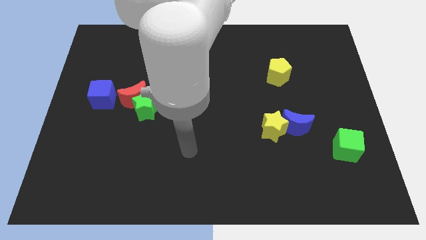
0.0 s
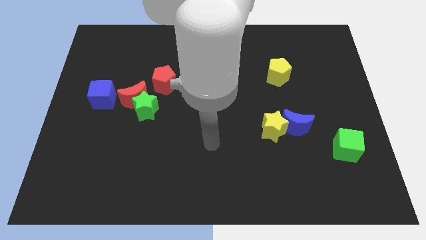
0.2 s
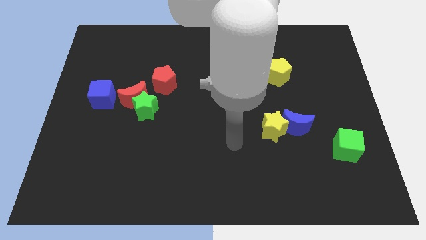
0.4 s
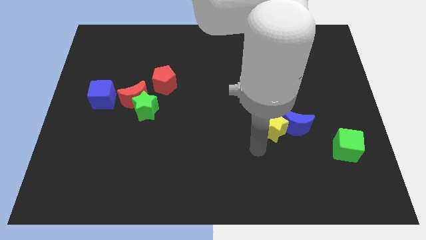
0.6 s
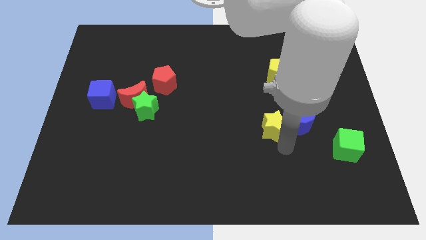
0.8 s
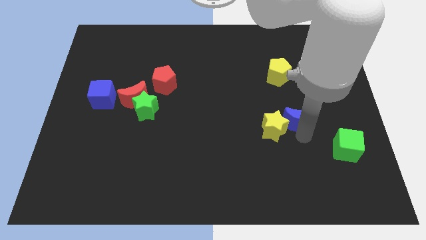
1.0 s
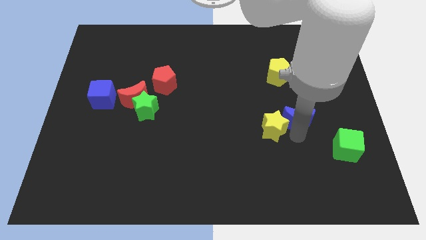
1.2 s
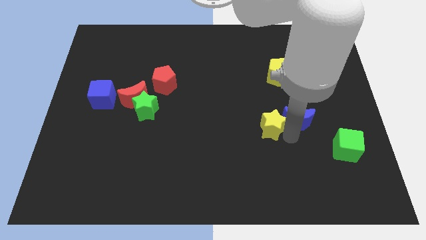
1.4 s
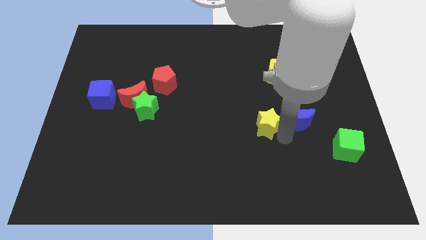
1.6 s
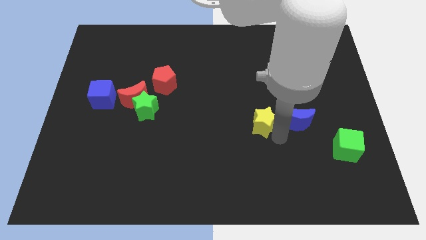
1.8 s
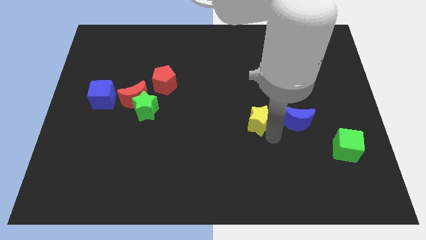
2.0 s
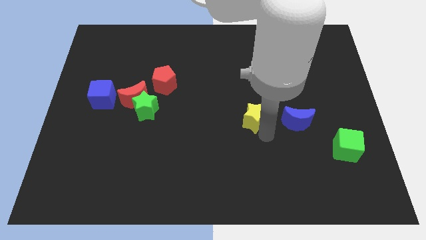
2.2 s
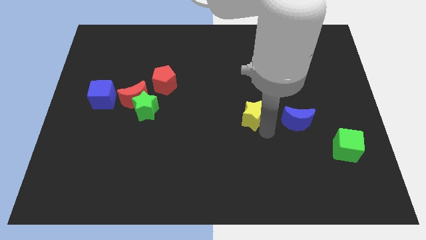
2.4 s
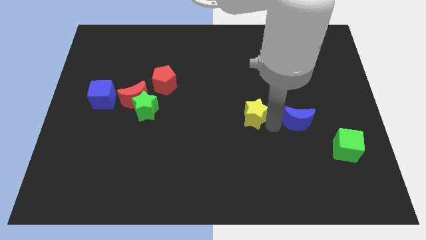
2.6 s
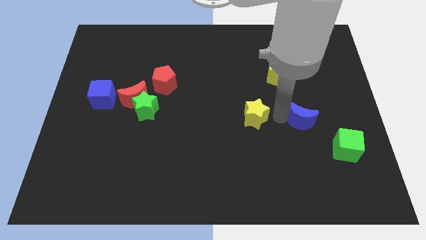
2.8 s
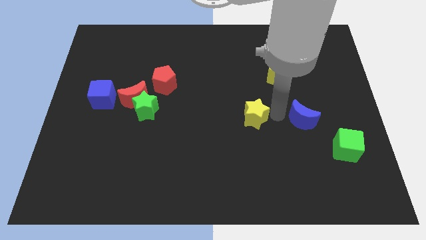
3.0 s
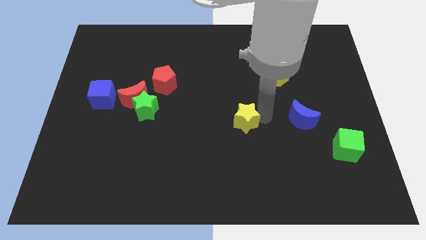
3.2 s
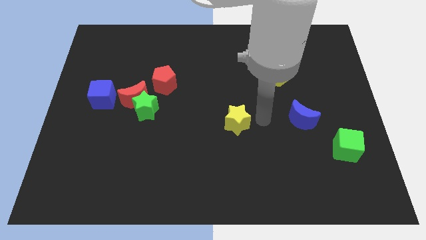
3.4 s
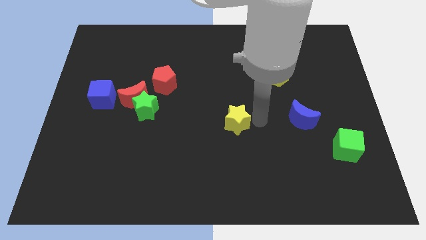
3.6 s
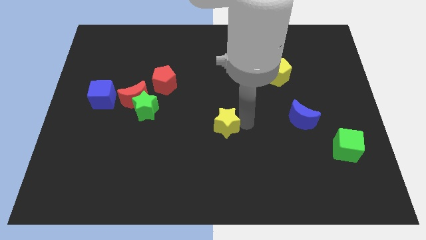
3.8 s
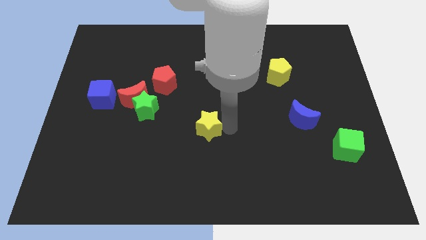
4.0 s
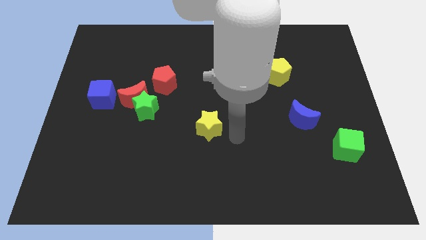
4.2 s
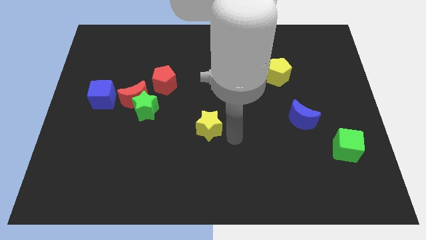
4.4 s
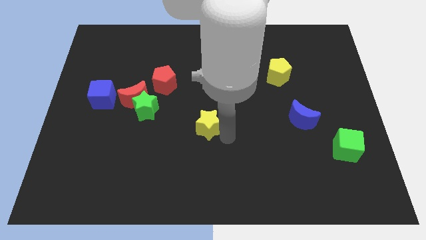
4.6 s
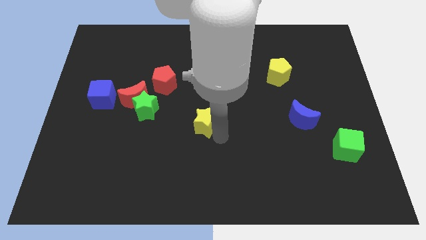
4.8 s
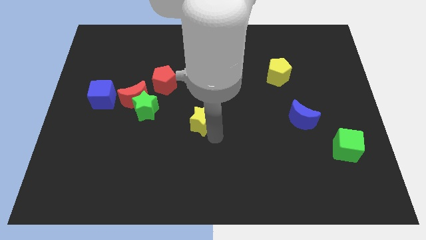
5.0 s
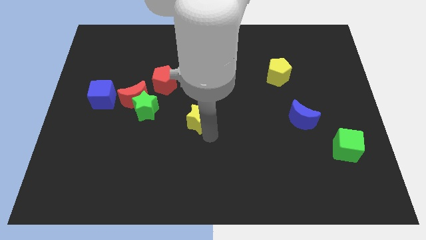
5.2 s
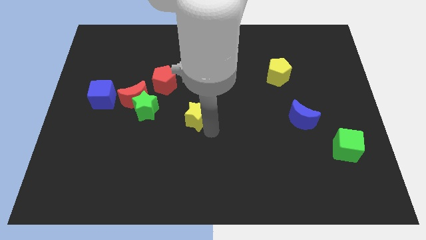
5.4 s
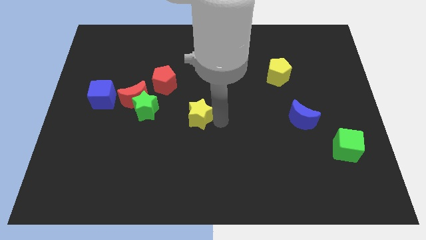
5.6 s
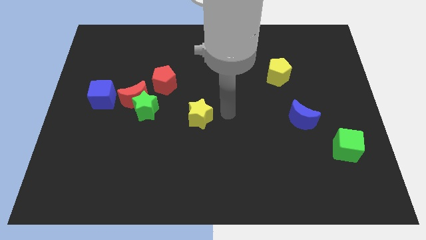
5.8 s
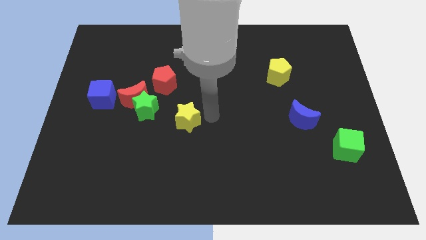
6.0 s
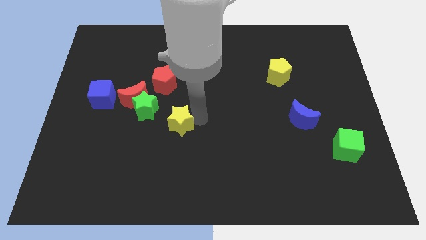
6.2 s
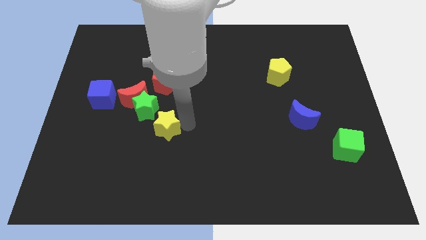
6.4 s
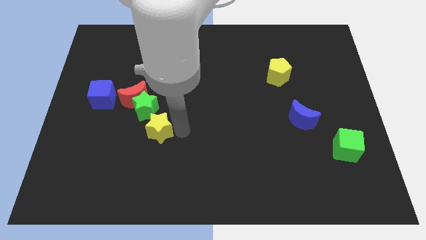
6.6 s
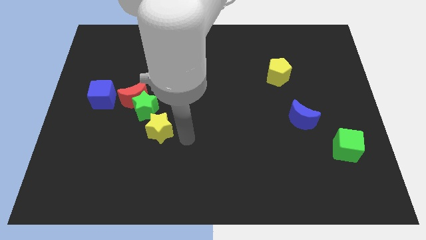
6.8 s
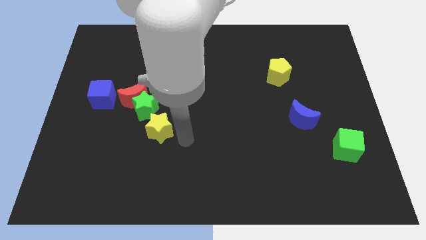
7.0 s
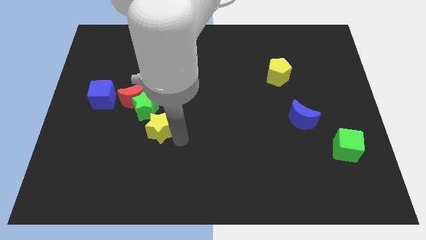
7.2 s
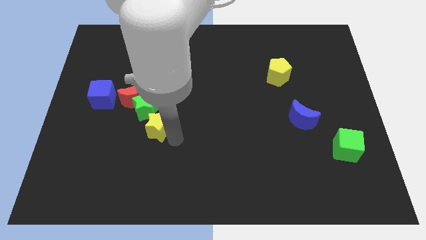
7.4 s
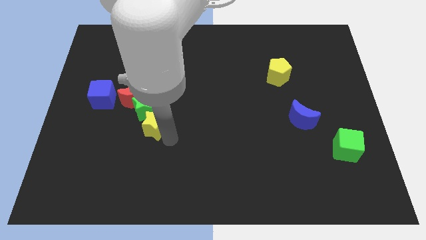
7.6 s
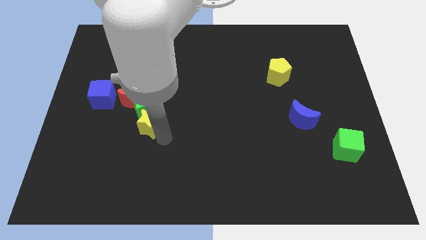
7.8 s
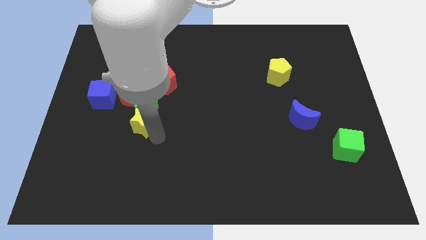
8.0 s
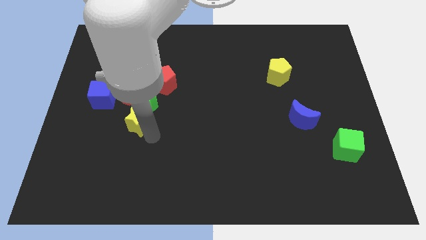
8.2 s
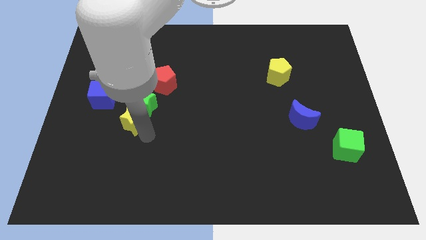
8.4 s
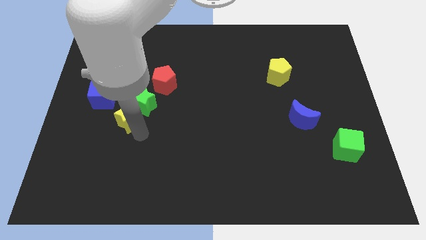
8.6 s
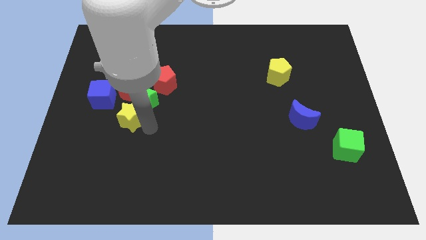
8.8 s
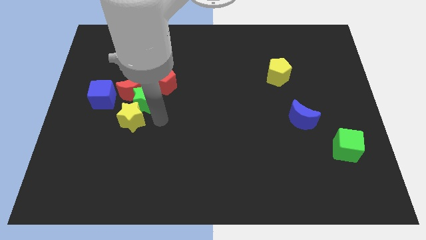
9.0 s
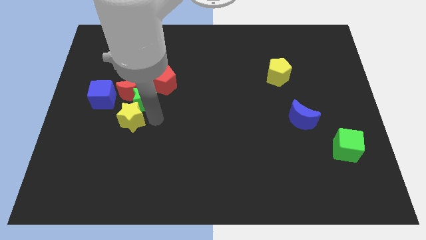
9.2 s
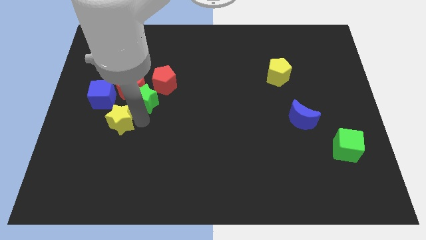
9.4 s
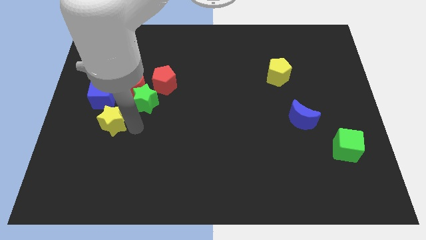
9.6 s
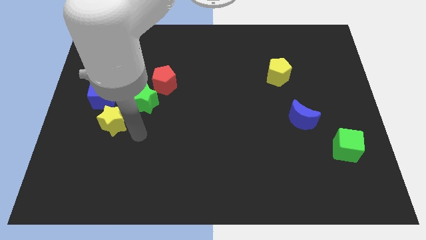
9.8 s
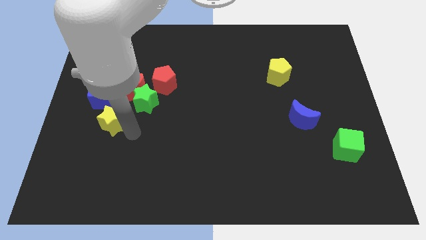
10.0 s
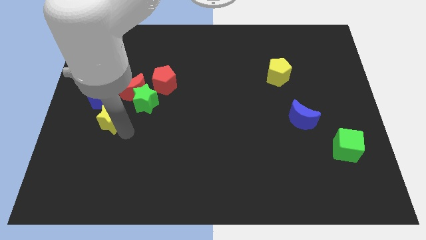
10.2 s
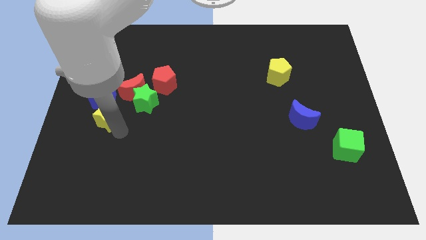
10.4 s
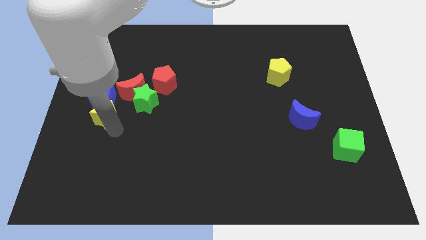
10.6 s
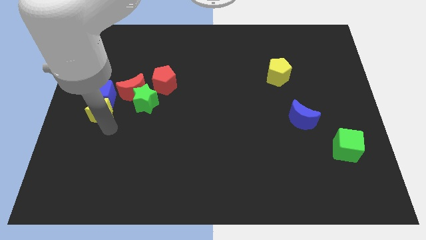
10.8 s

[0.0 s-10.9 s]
put the yellow star to the left side of the board
